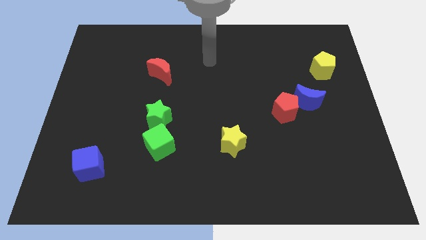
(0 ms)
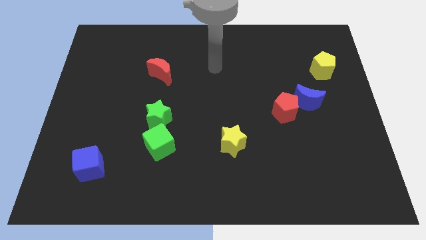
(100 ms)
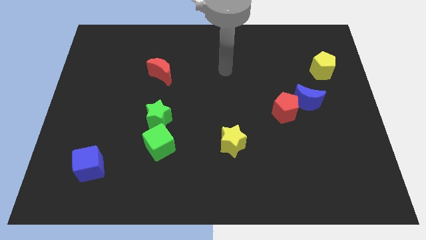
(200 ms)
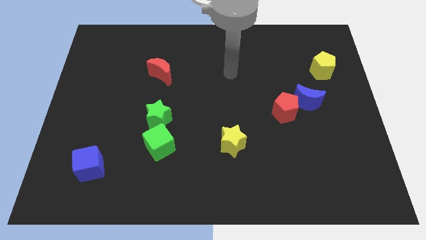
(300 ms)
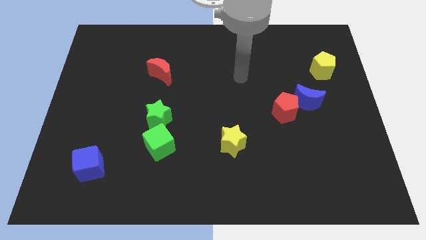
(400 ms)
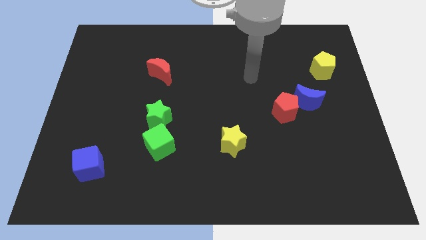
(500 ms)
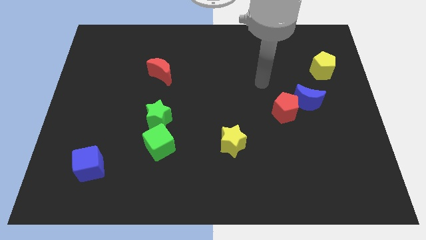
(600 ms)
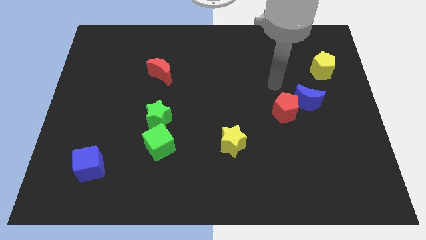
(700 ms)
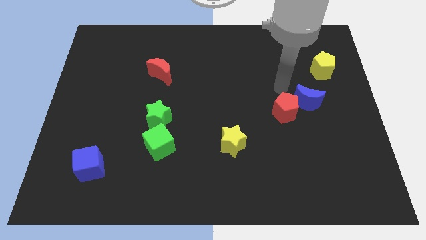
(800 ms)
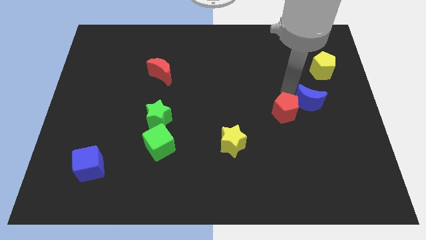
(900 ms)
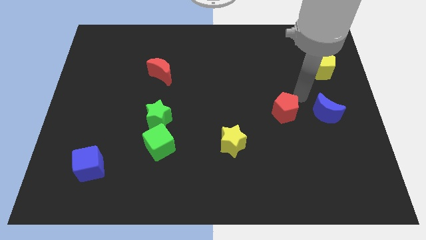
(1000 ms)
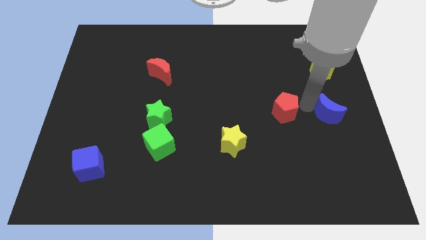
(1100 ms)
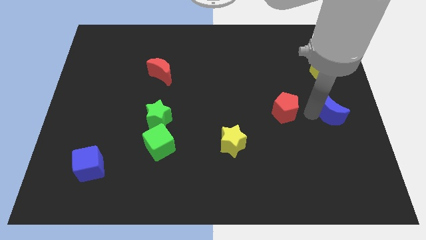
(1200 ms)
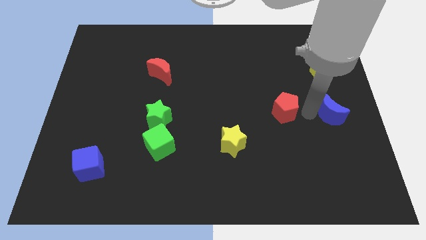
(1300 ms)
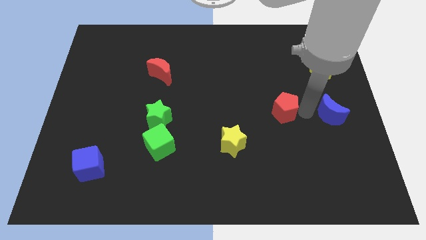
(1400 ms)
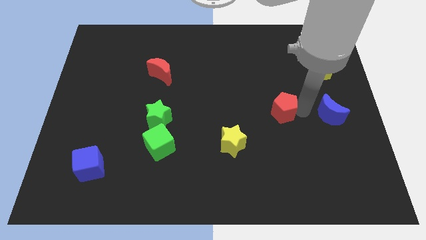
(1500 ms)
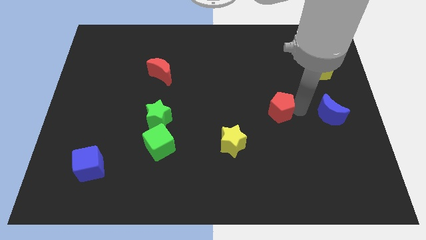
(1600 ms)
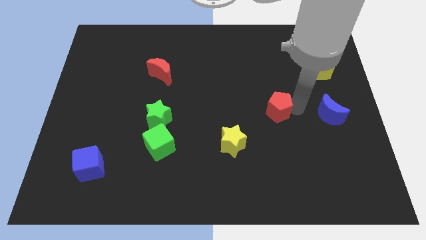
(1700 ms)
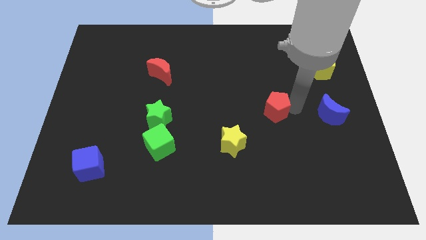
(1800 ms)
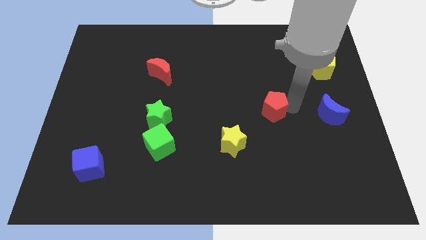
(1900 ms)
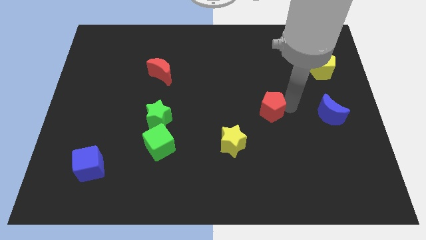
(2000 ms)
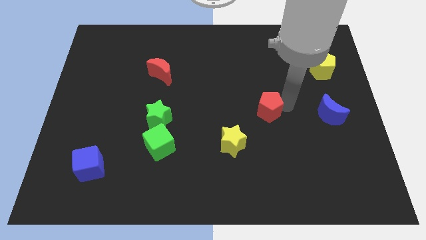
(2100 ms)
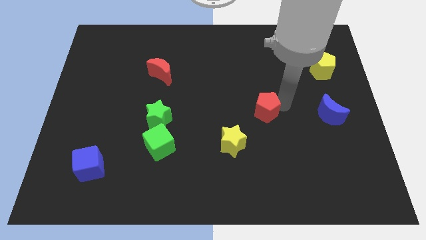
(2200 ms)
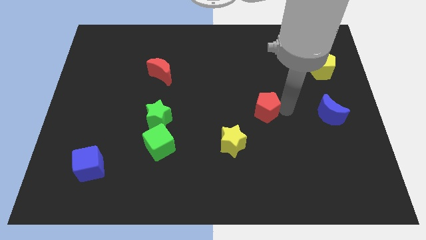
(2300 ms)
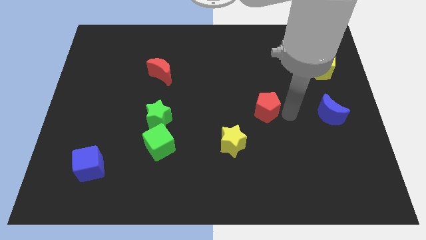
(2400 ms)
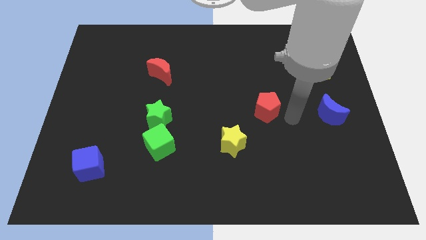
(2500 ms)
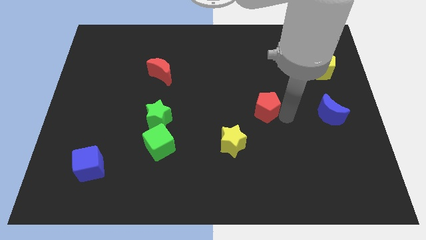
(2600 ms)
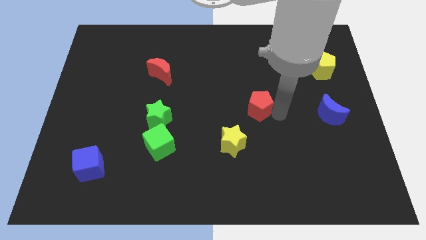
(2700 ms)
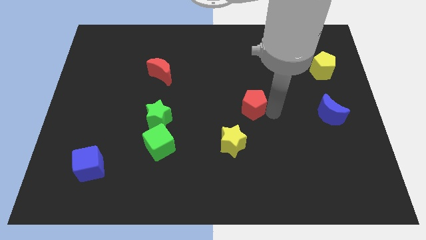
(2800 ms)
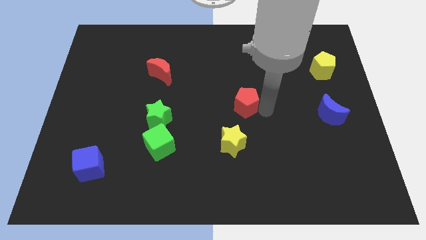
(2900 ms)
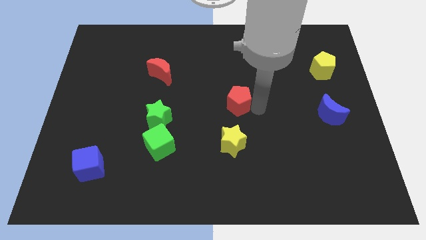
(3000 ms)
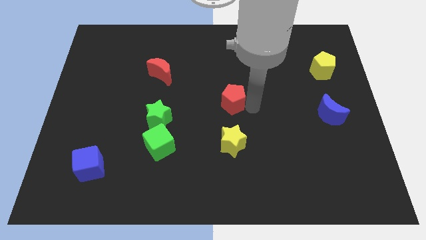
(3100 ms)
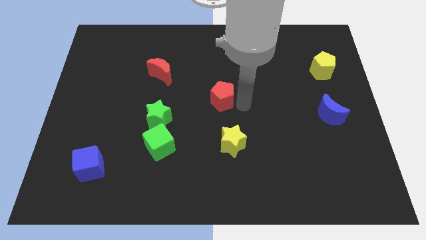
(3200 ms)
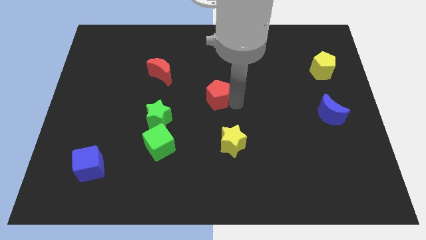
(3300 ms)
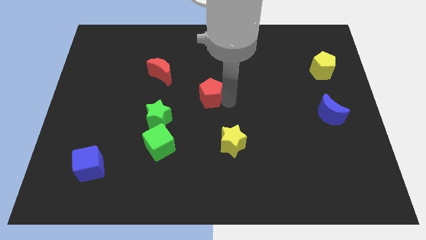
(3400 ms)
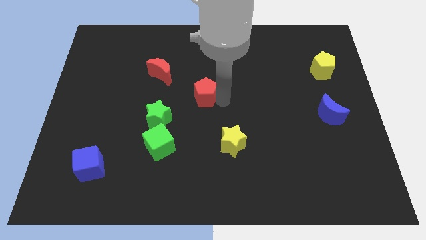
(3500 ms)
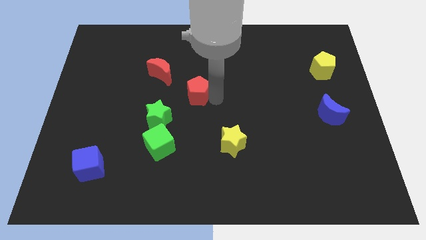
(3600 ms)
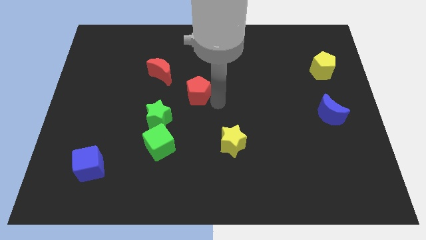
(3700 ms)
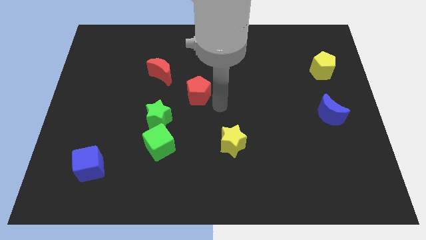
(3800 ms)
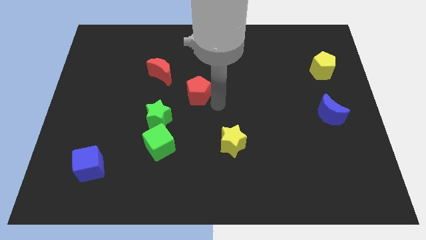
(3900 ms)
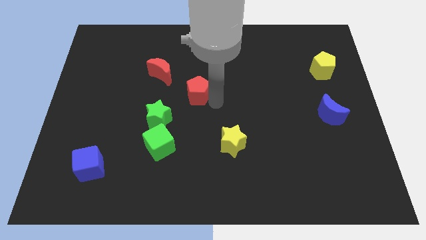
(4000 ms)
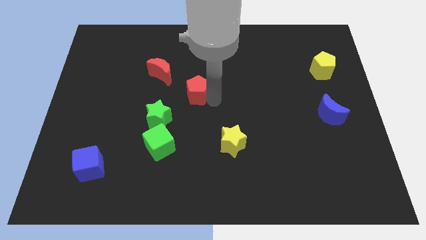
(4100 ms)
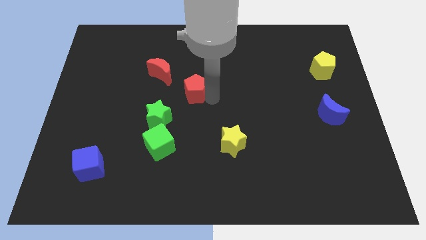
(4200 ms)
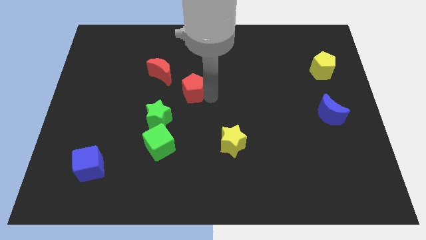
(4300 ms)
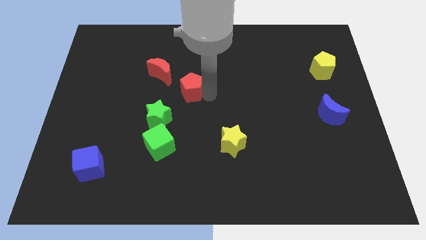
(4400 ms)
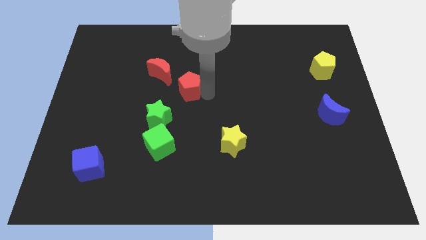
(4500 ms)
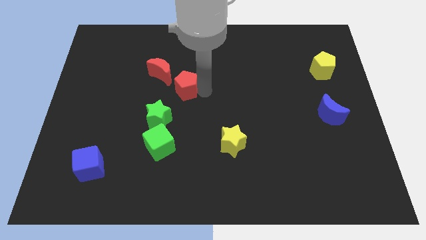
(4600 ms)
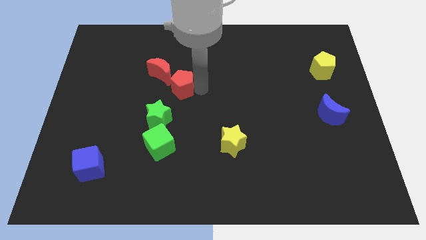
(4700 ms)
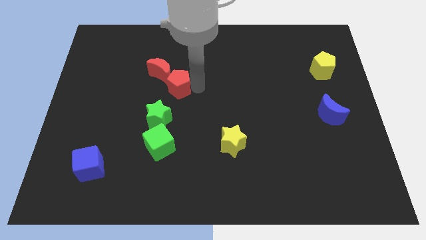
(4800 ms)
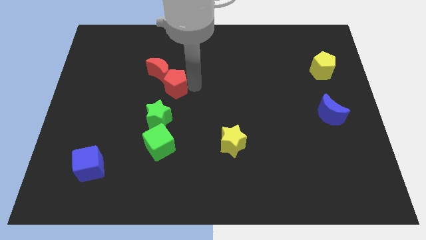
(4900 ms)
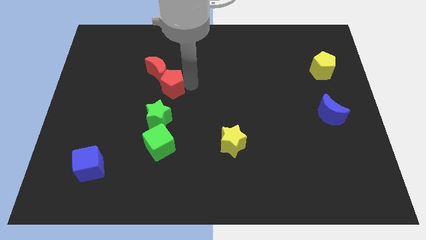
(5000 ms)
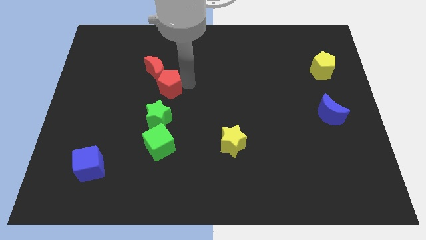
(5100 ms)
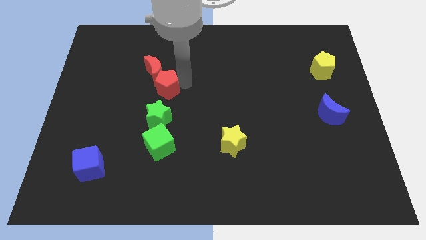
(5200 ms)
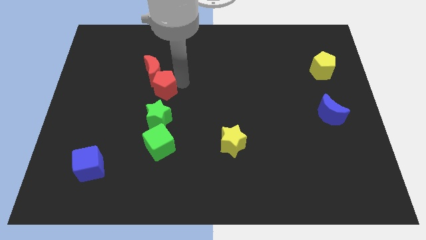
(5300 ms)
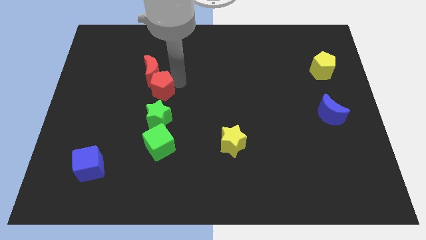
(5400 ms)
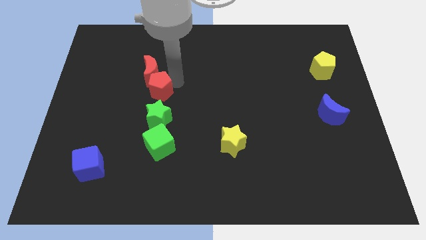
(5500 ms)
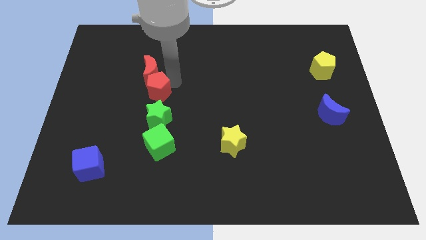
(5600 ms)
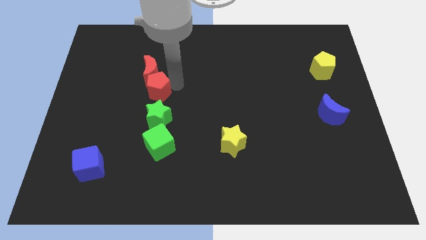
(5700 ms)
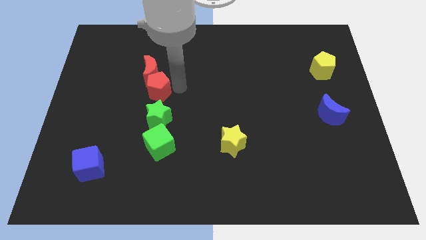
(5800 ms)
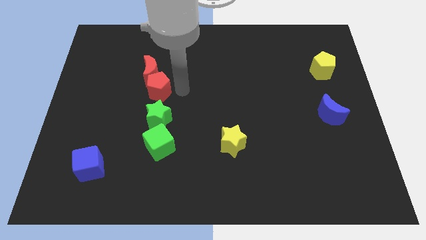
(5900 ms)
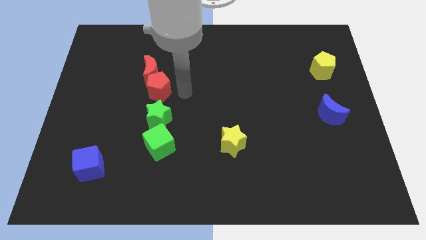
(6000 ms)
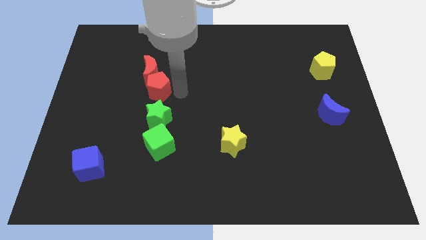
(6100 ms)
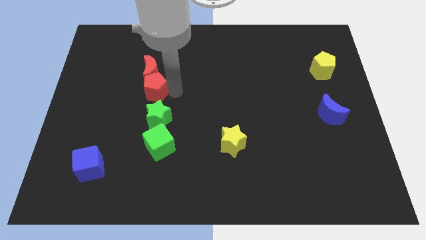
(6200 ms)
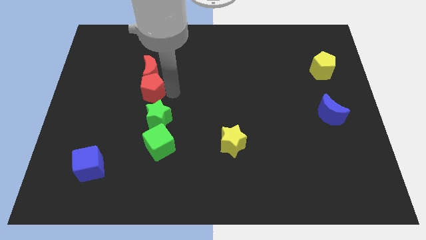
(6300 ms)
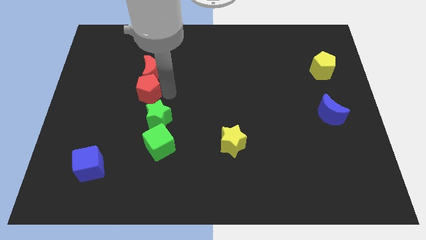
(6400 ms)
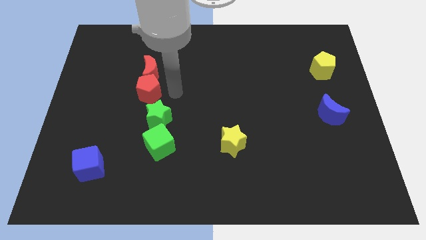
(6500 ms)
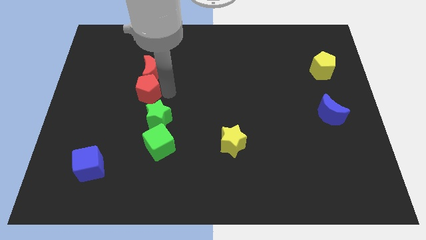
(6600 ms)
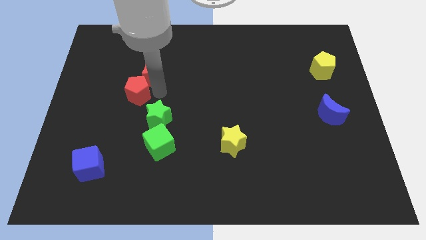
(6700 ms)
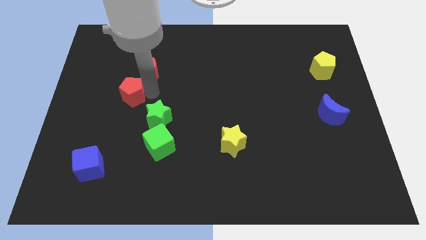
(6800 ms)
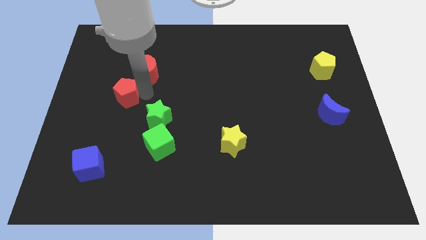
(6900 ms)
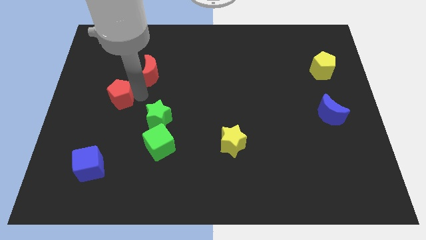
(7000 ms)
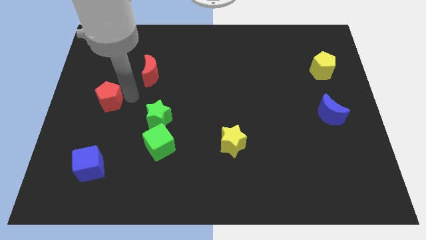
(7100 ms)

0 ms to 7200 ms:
slide the red pentagon to the center left

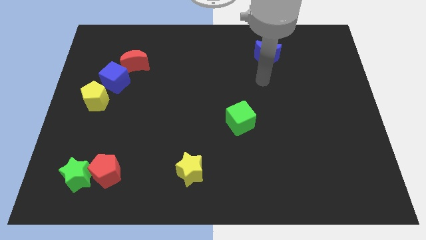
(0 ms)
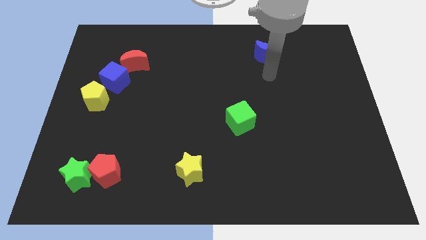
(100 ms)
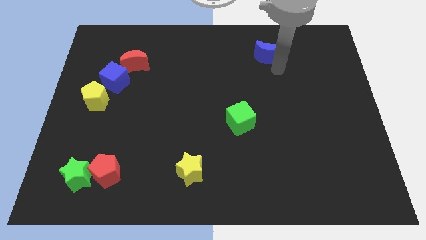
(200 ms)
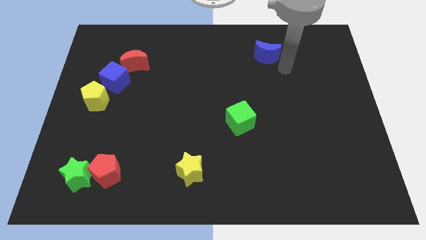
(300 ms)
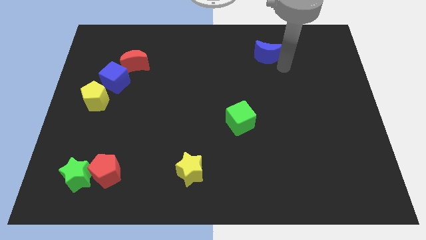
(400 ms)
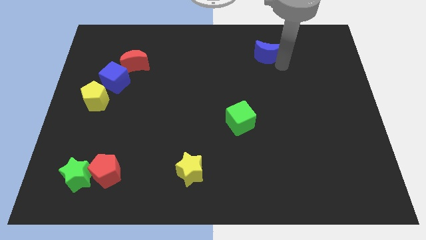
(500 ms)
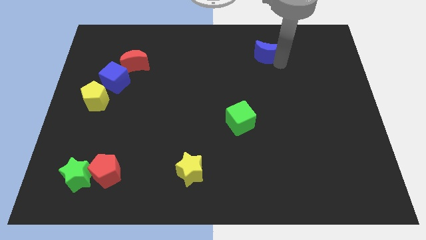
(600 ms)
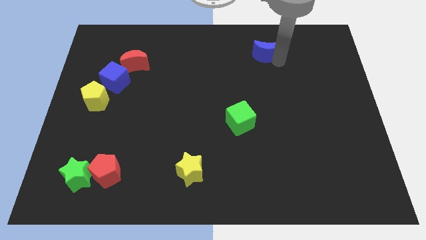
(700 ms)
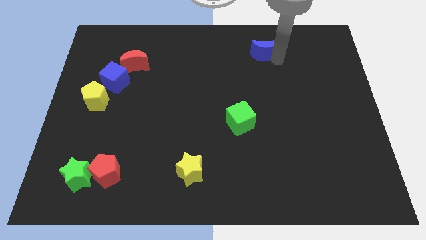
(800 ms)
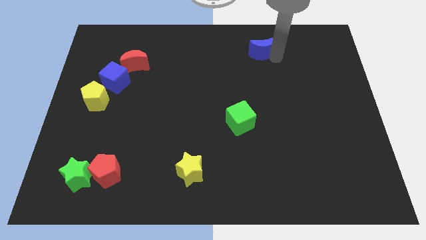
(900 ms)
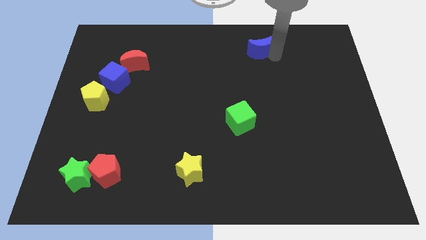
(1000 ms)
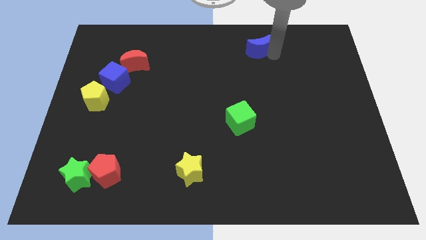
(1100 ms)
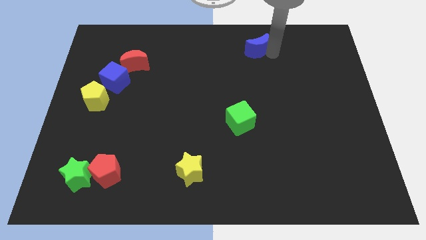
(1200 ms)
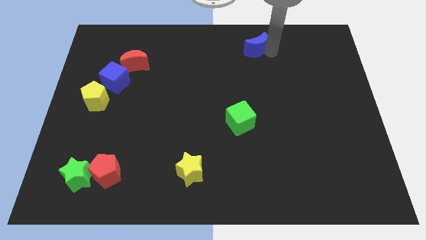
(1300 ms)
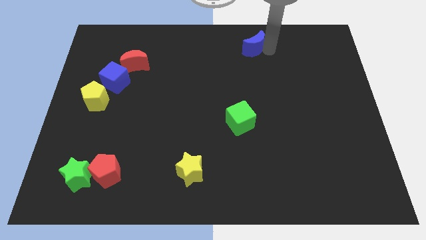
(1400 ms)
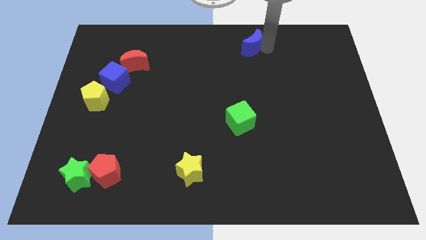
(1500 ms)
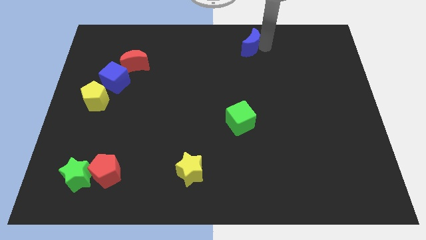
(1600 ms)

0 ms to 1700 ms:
slide the blue moon to the towards your base
